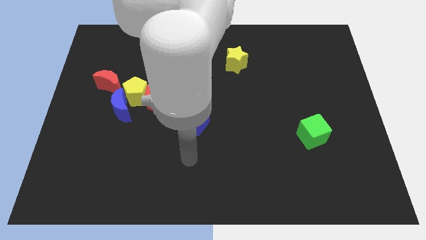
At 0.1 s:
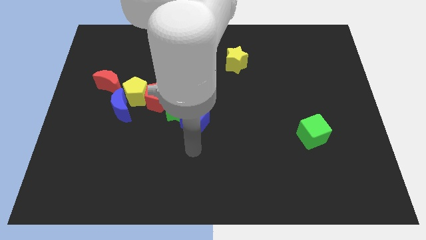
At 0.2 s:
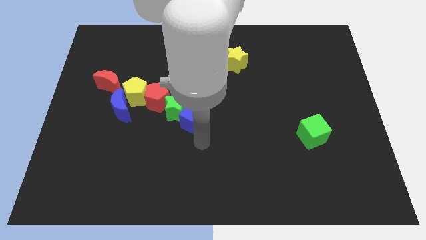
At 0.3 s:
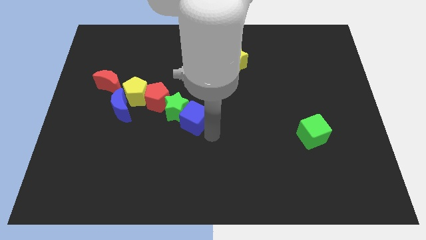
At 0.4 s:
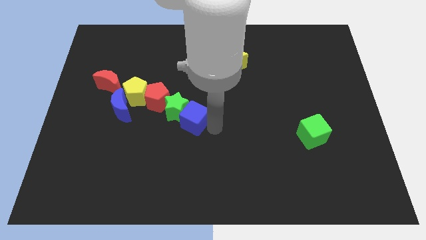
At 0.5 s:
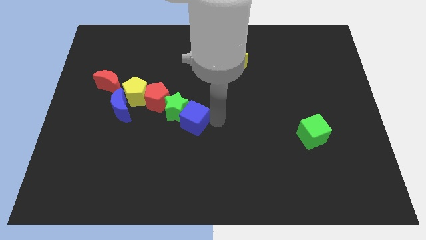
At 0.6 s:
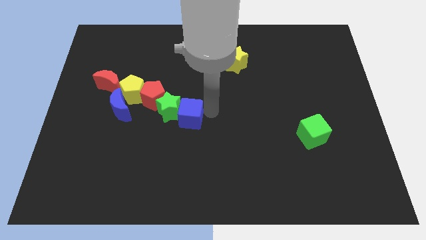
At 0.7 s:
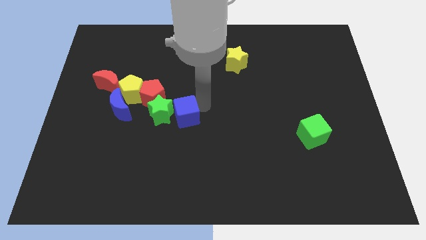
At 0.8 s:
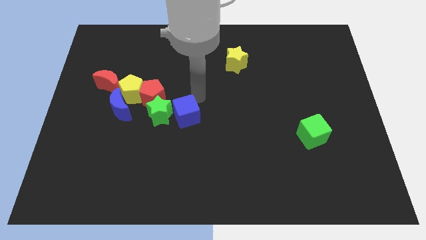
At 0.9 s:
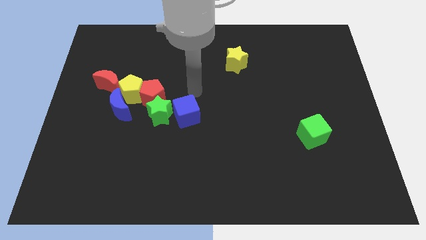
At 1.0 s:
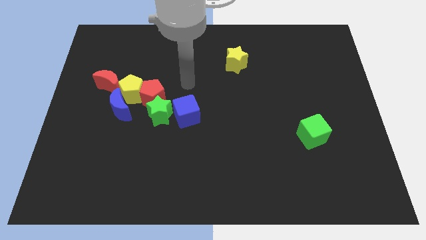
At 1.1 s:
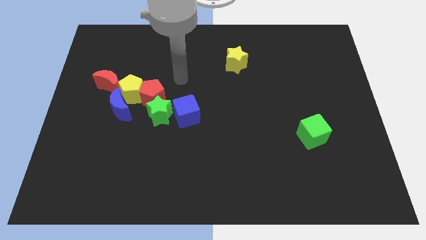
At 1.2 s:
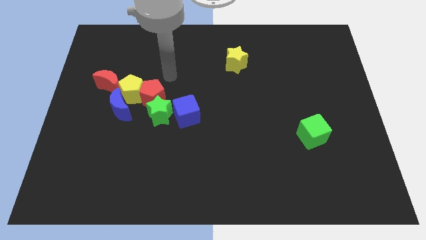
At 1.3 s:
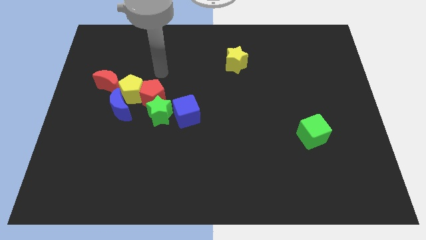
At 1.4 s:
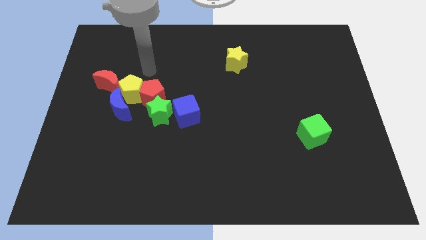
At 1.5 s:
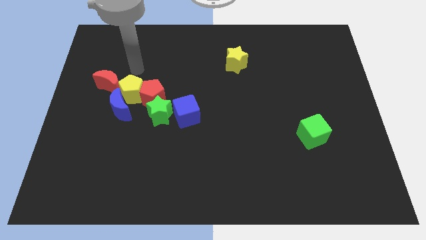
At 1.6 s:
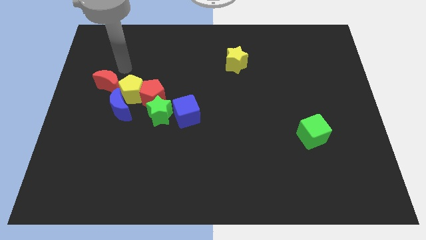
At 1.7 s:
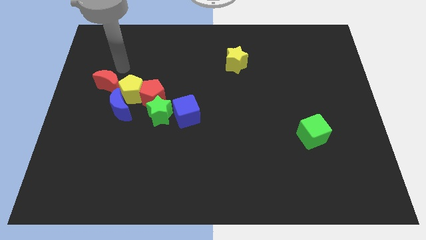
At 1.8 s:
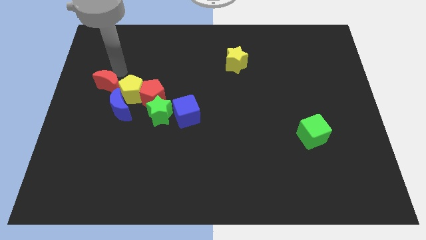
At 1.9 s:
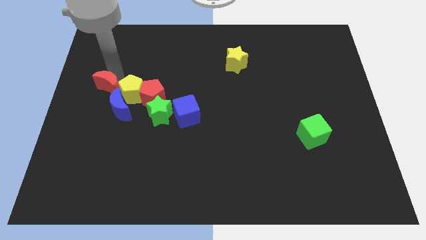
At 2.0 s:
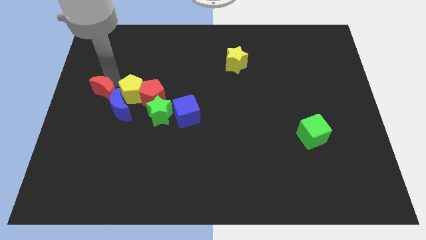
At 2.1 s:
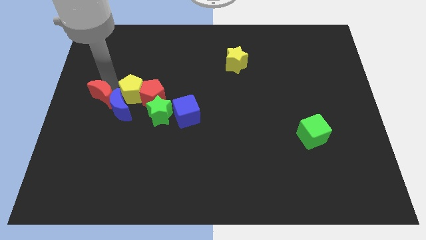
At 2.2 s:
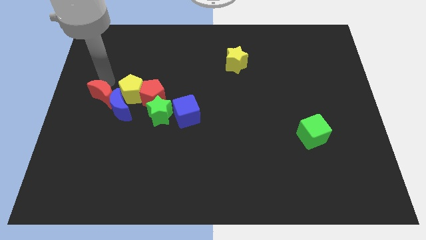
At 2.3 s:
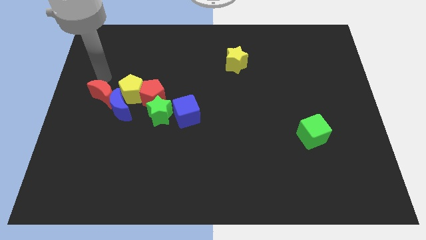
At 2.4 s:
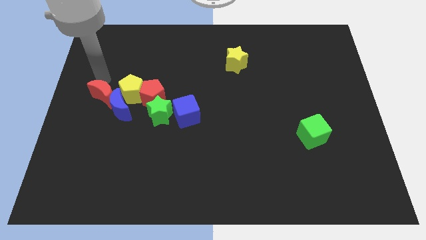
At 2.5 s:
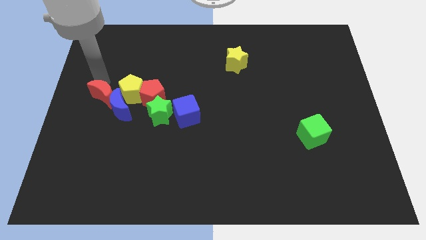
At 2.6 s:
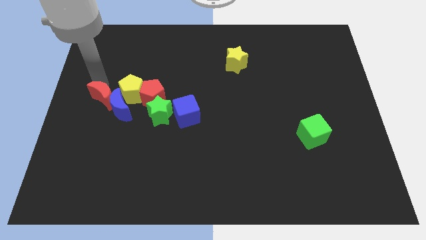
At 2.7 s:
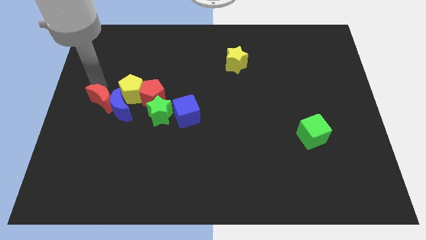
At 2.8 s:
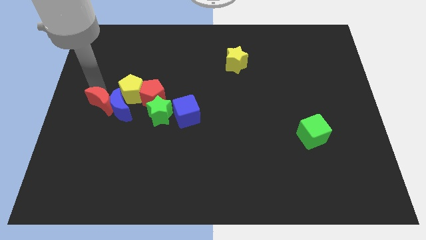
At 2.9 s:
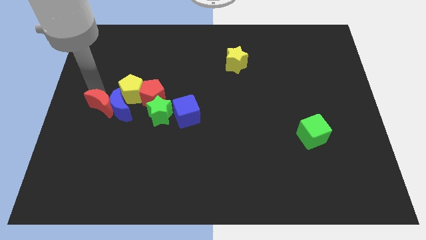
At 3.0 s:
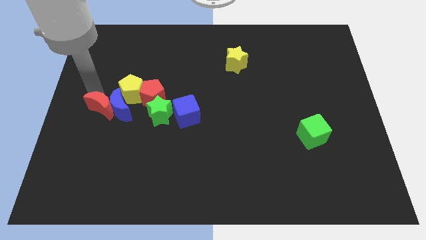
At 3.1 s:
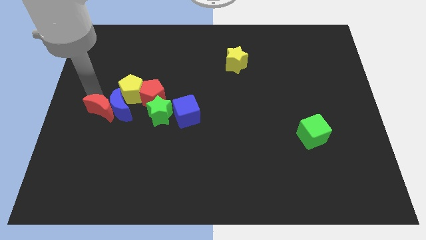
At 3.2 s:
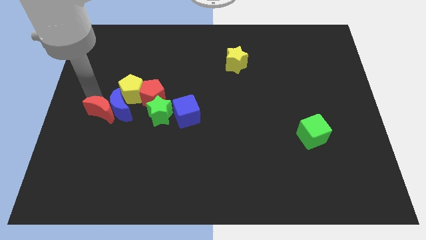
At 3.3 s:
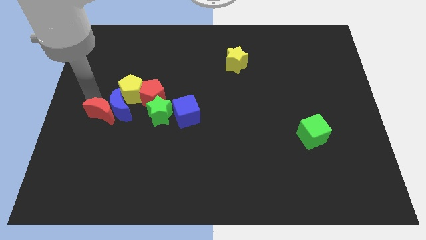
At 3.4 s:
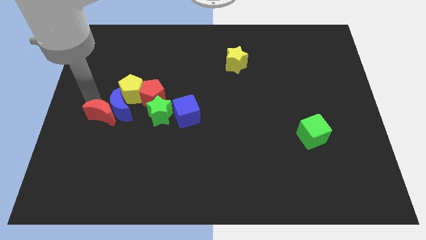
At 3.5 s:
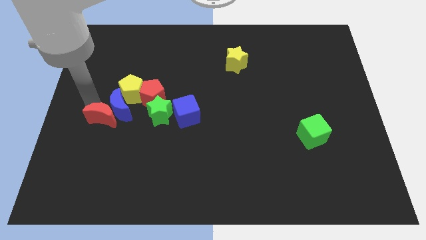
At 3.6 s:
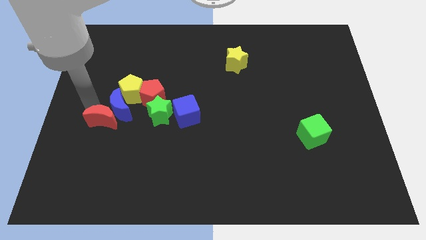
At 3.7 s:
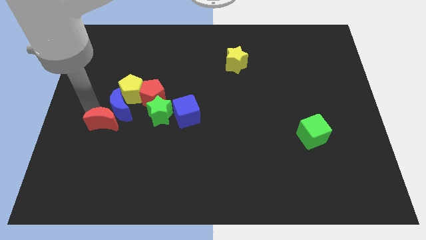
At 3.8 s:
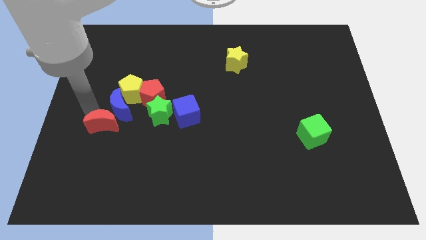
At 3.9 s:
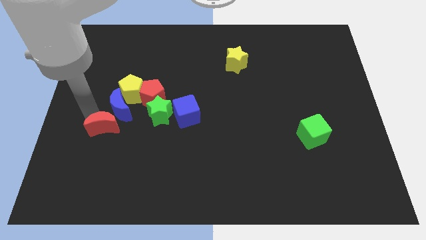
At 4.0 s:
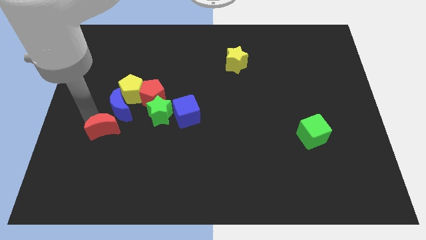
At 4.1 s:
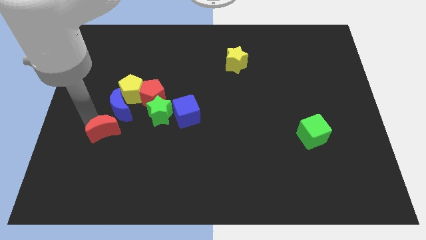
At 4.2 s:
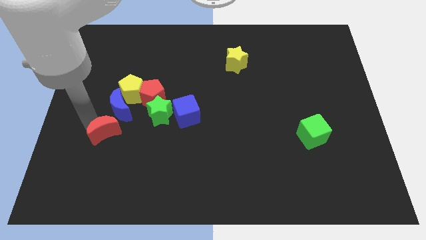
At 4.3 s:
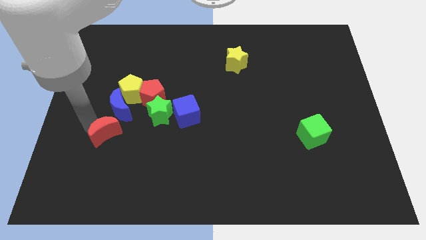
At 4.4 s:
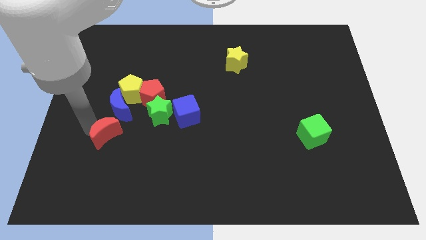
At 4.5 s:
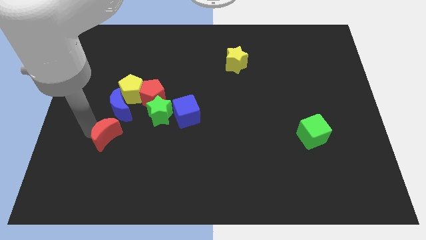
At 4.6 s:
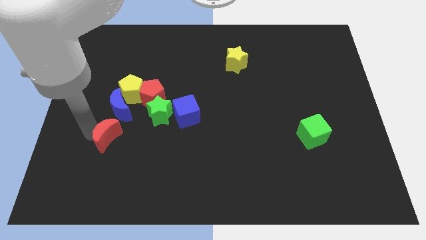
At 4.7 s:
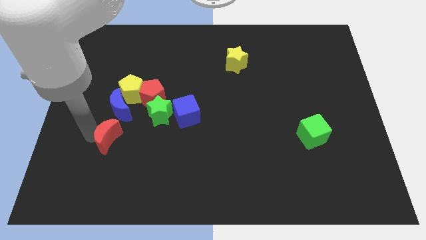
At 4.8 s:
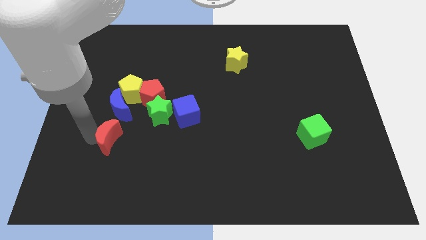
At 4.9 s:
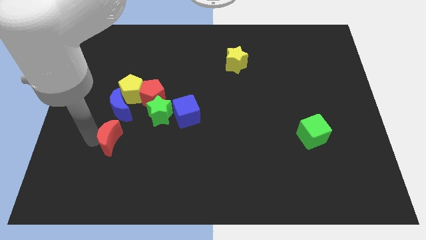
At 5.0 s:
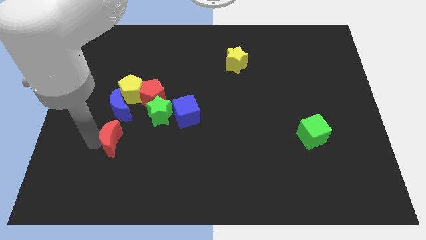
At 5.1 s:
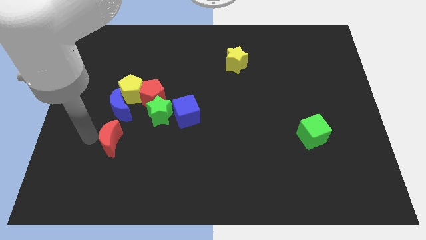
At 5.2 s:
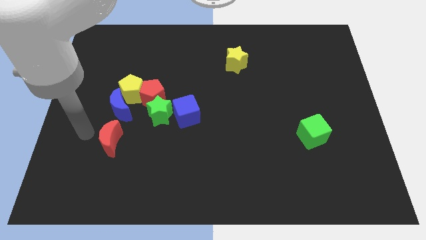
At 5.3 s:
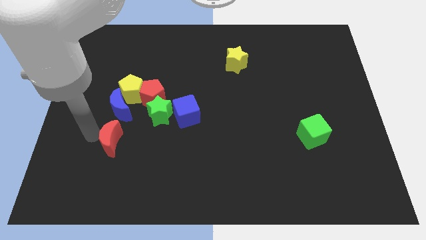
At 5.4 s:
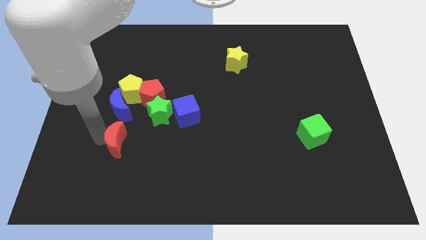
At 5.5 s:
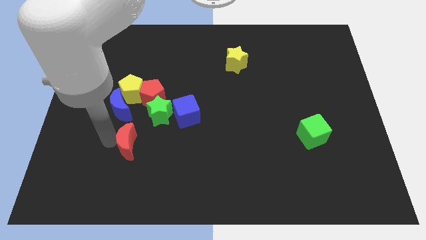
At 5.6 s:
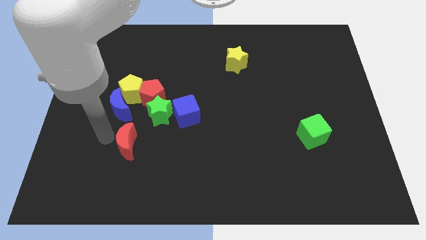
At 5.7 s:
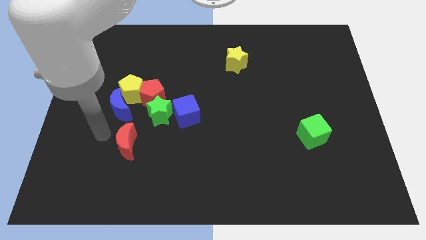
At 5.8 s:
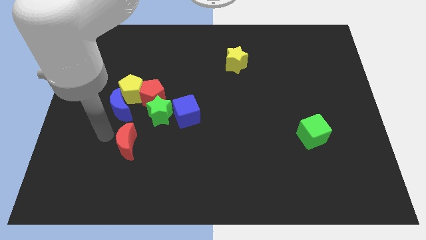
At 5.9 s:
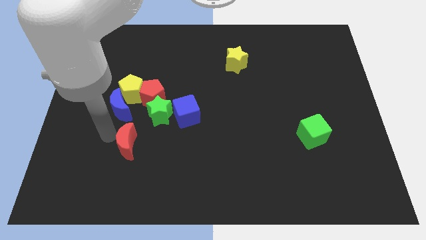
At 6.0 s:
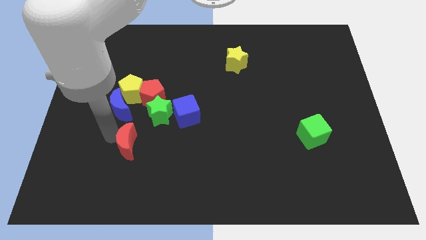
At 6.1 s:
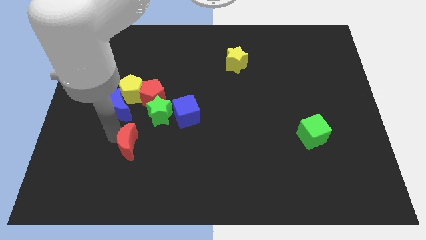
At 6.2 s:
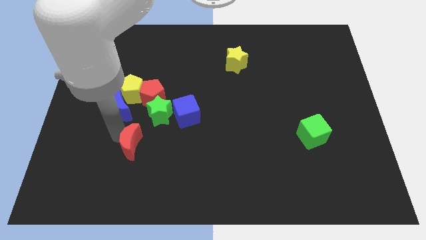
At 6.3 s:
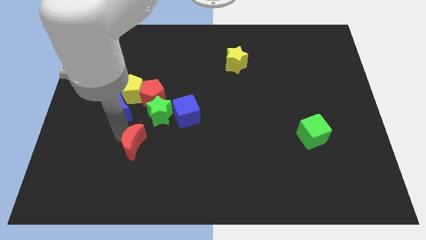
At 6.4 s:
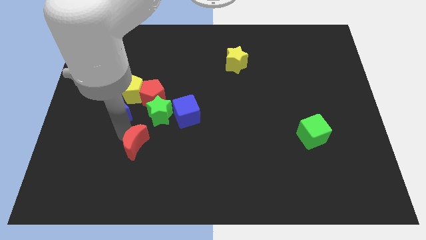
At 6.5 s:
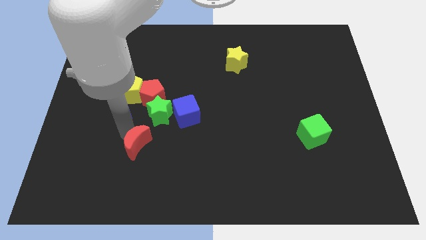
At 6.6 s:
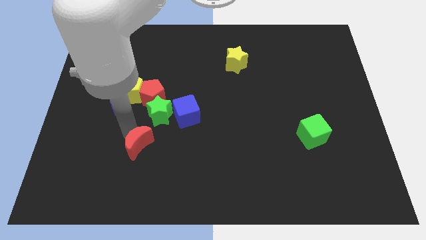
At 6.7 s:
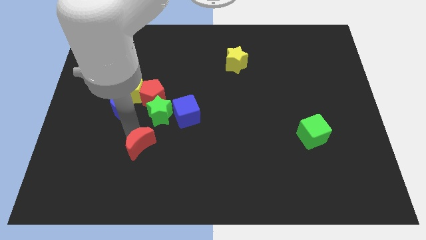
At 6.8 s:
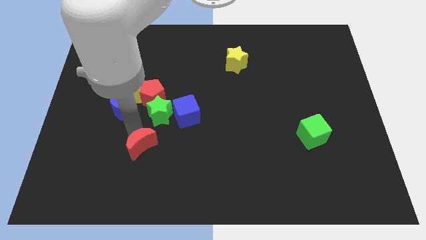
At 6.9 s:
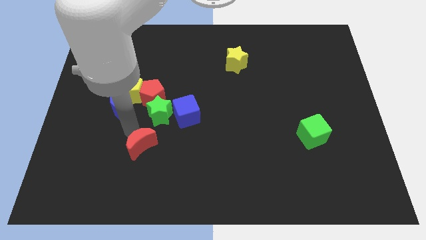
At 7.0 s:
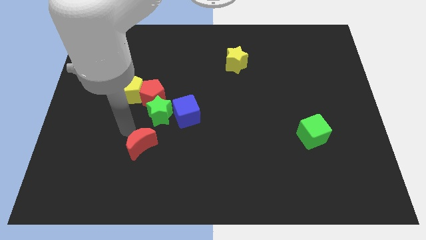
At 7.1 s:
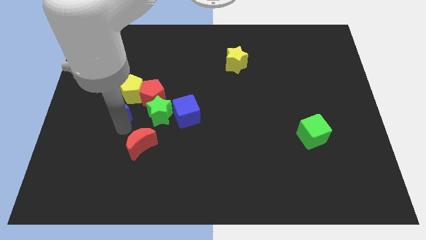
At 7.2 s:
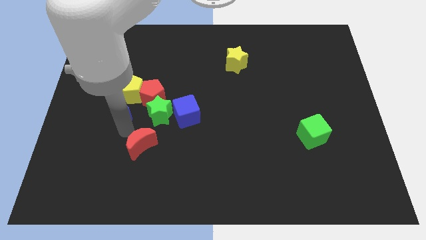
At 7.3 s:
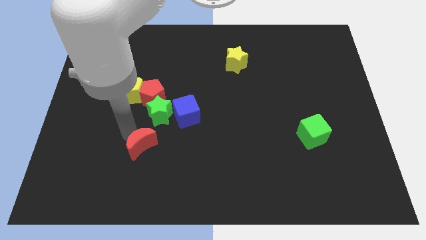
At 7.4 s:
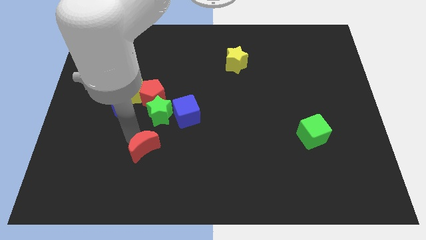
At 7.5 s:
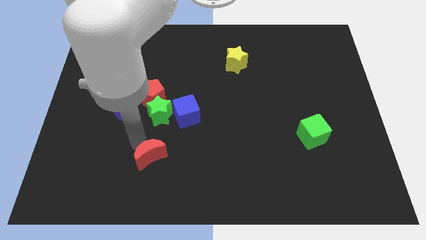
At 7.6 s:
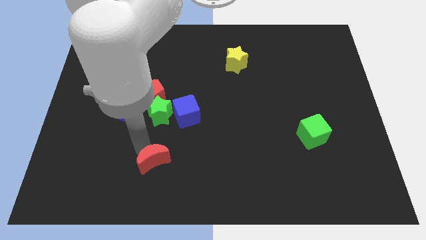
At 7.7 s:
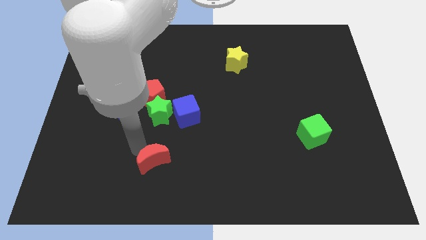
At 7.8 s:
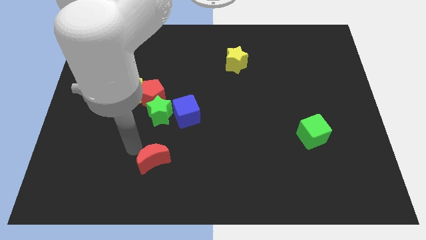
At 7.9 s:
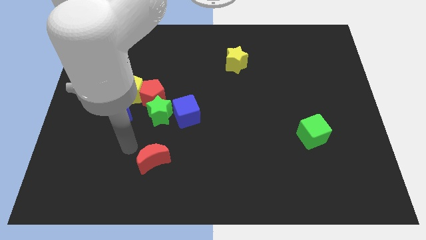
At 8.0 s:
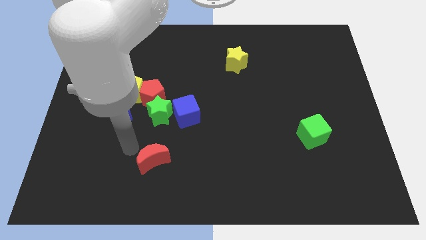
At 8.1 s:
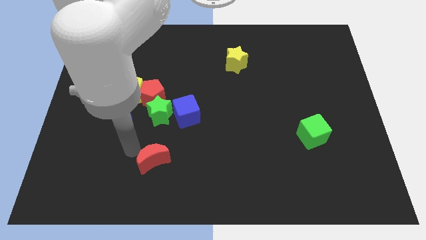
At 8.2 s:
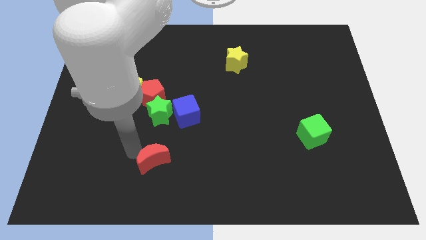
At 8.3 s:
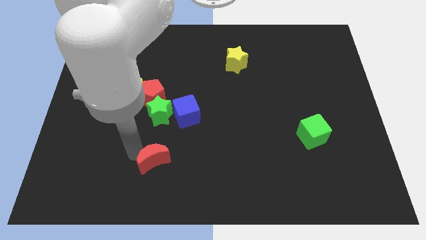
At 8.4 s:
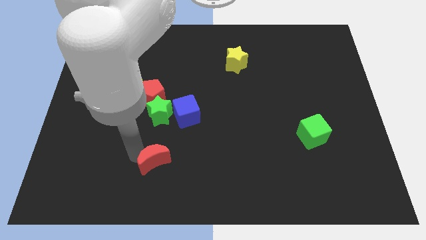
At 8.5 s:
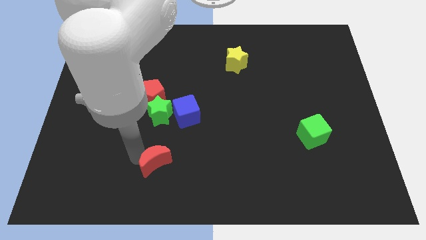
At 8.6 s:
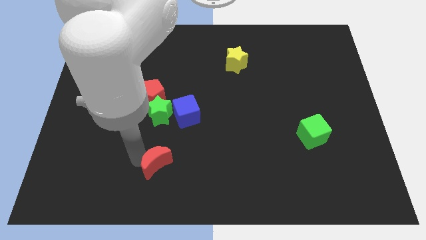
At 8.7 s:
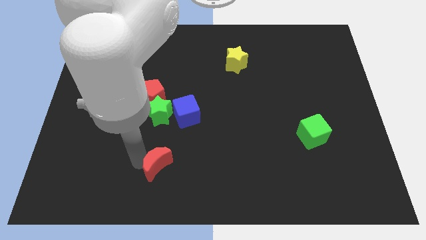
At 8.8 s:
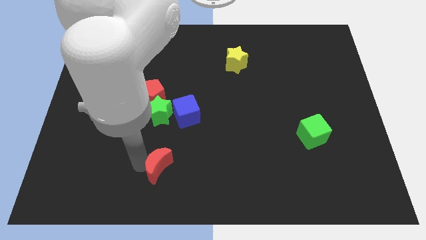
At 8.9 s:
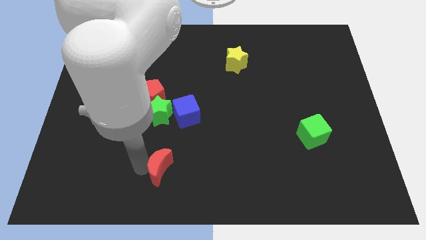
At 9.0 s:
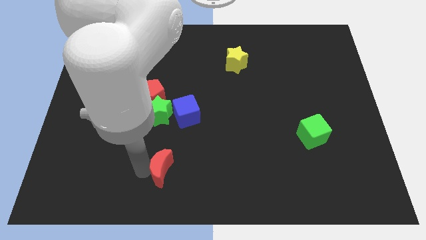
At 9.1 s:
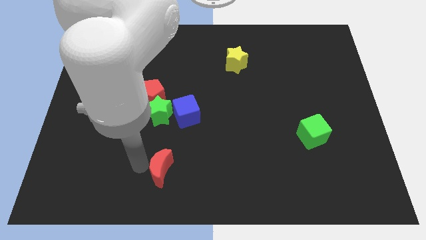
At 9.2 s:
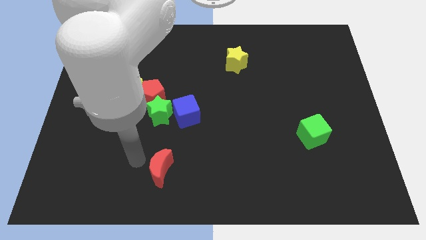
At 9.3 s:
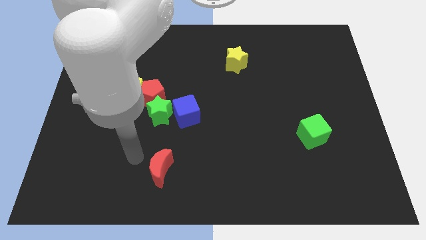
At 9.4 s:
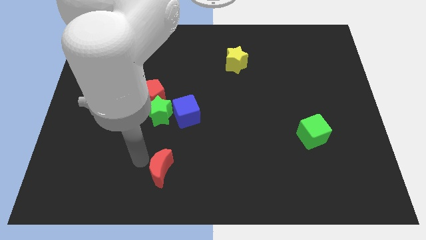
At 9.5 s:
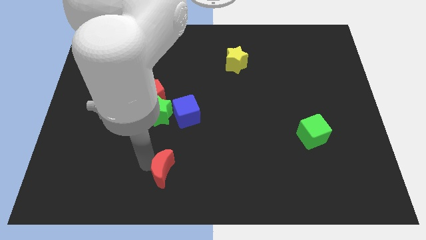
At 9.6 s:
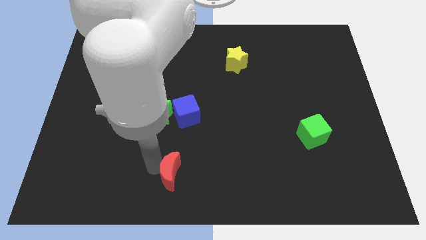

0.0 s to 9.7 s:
put the red moon to the bottom
